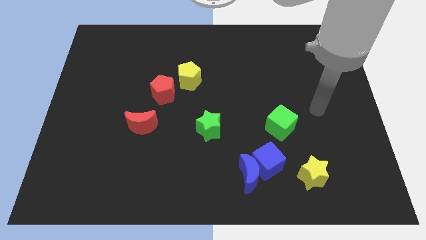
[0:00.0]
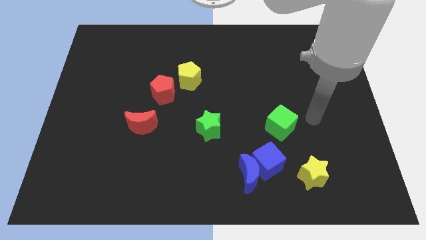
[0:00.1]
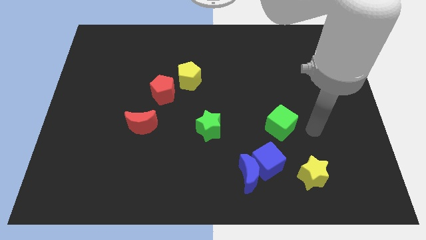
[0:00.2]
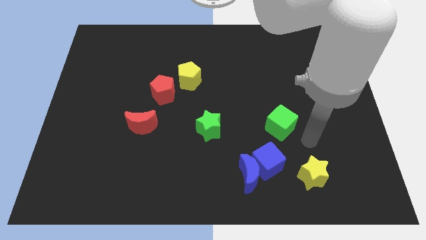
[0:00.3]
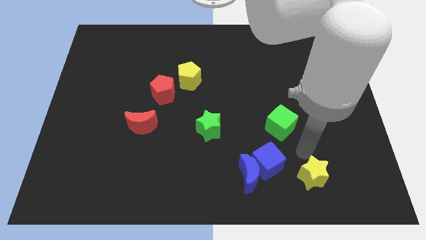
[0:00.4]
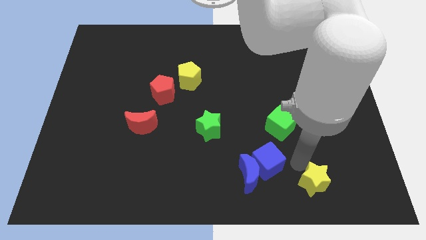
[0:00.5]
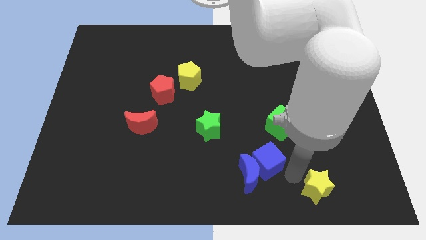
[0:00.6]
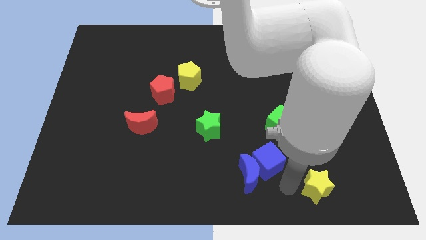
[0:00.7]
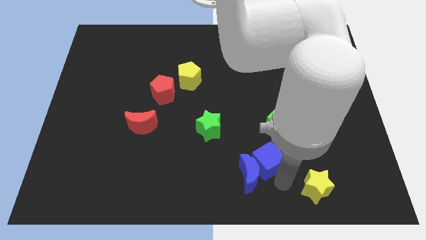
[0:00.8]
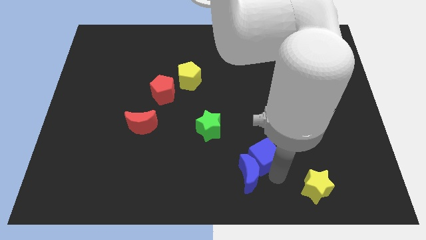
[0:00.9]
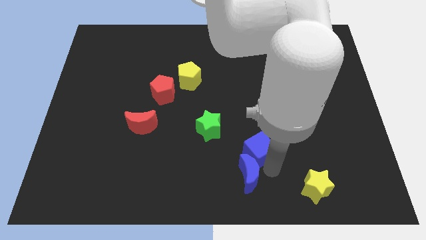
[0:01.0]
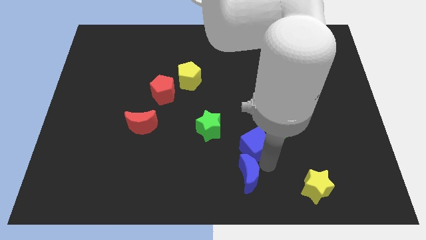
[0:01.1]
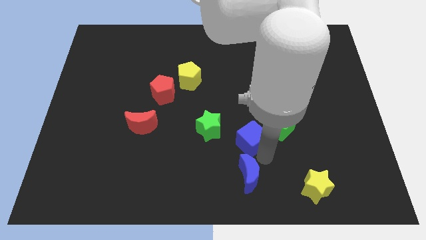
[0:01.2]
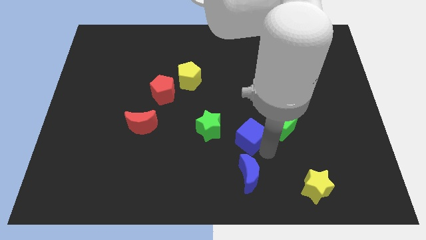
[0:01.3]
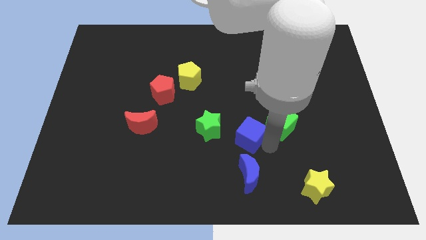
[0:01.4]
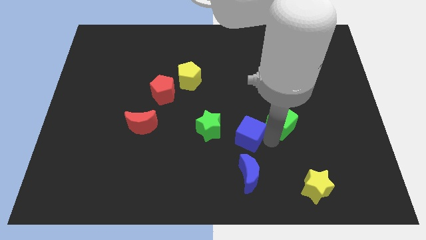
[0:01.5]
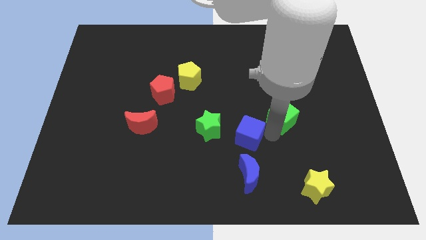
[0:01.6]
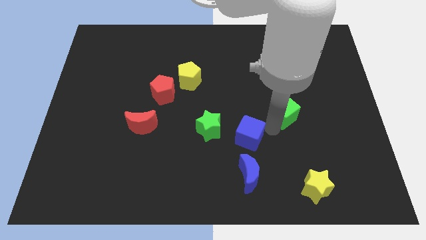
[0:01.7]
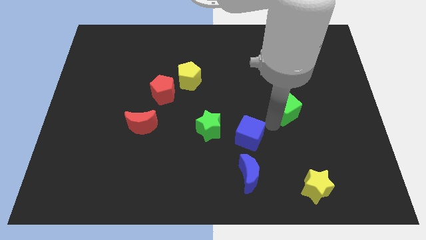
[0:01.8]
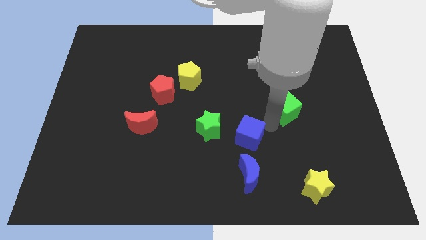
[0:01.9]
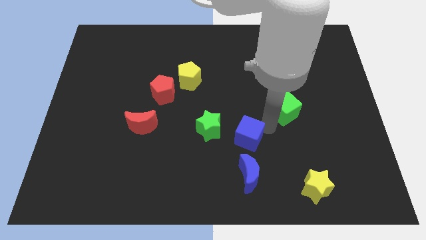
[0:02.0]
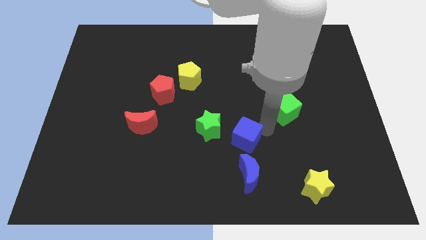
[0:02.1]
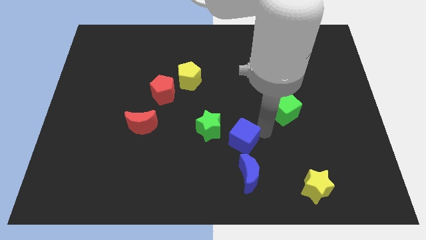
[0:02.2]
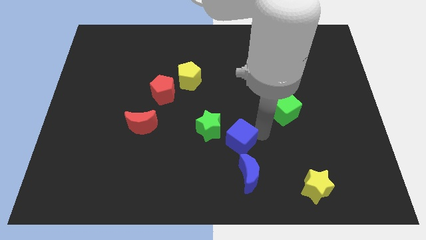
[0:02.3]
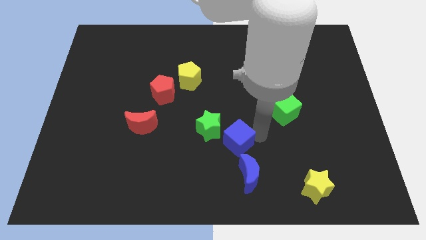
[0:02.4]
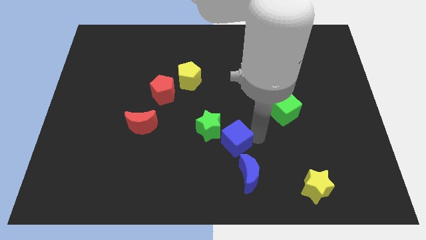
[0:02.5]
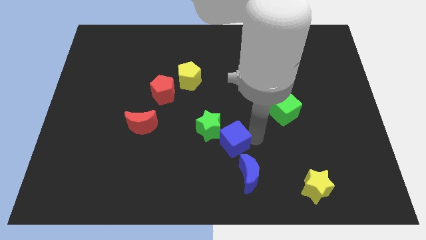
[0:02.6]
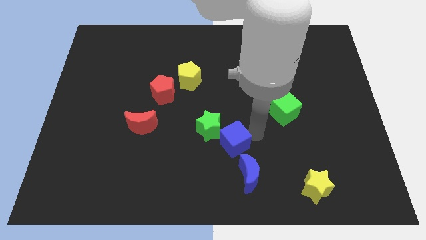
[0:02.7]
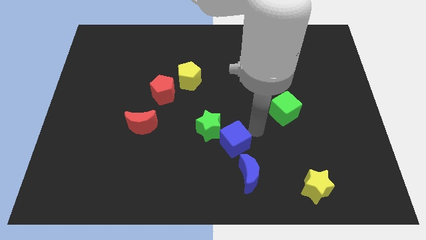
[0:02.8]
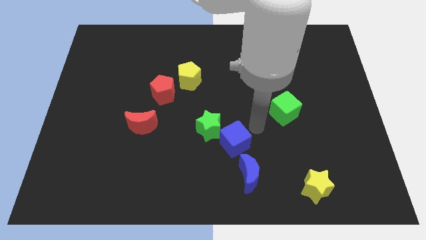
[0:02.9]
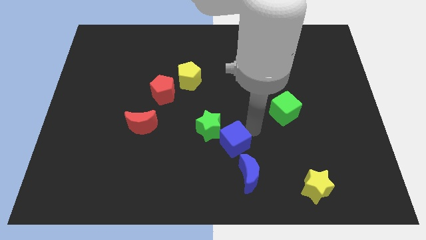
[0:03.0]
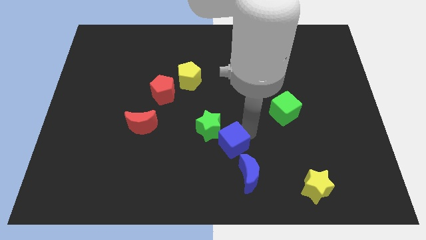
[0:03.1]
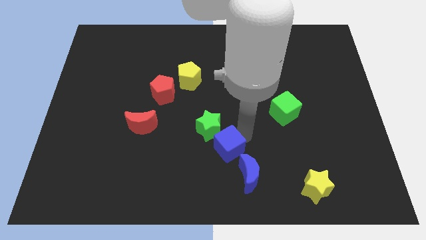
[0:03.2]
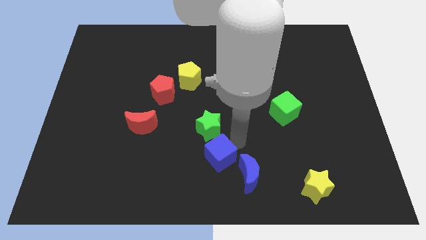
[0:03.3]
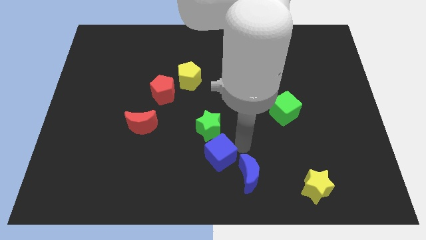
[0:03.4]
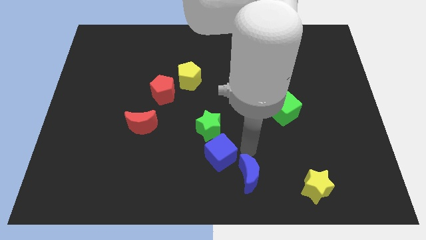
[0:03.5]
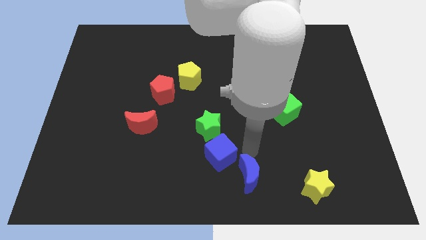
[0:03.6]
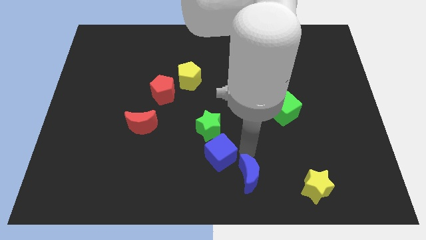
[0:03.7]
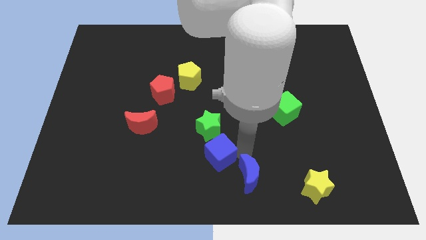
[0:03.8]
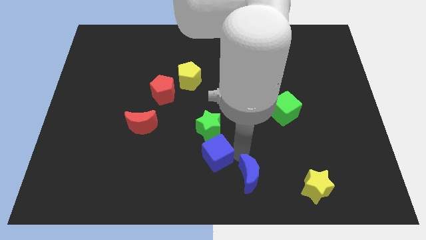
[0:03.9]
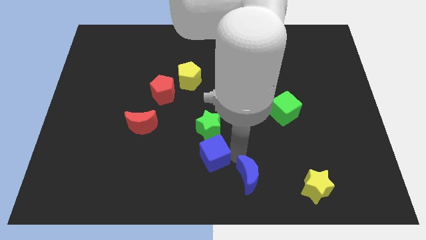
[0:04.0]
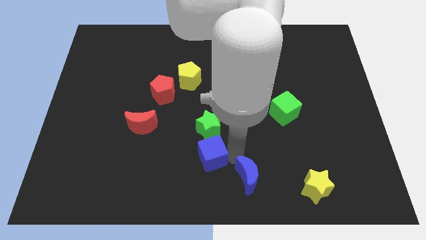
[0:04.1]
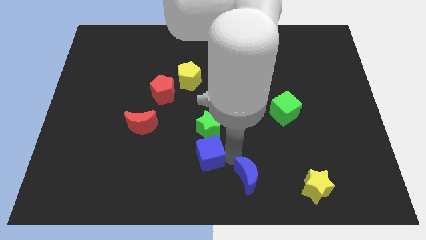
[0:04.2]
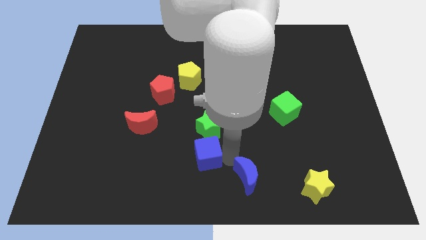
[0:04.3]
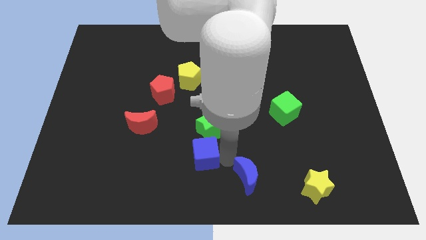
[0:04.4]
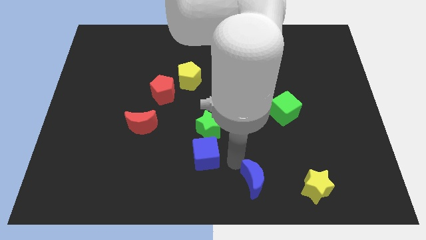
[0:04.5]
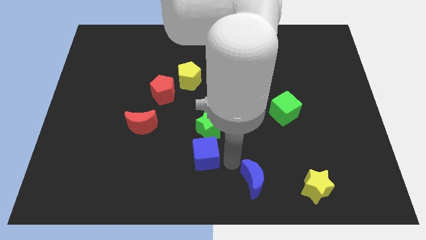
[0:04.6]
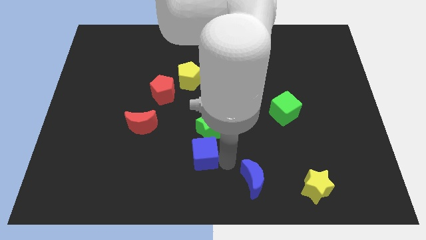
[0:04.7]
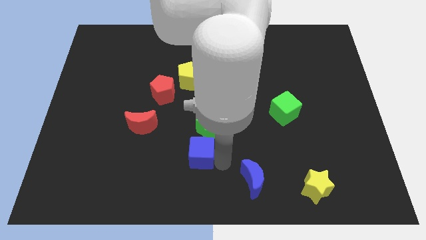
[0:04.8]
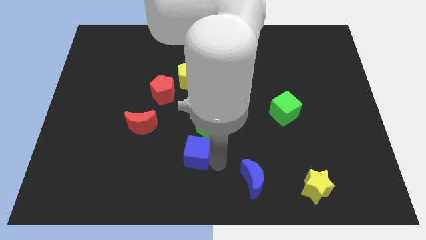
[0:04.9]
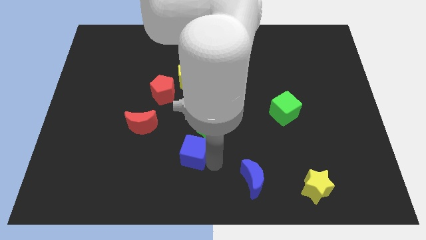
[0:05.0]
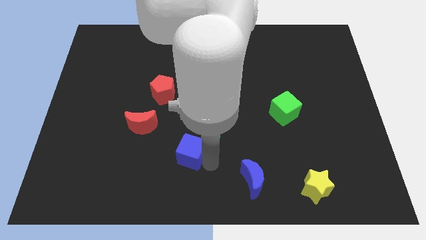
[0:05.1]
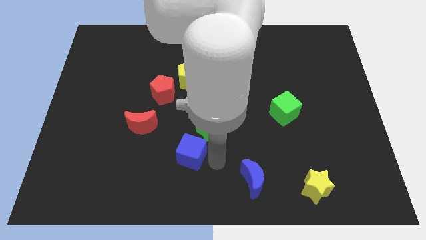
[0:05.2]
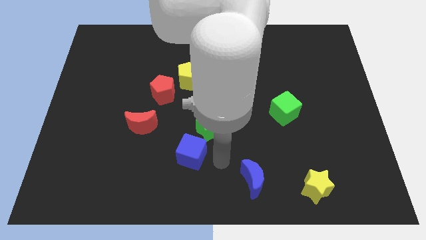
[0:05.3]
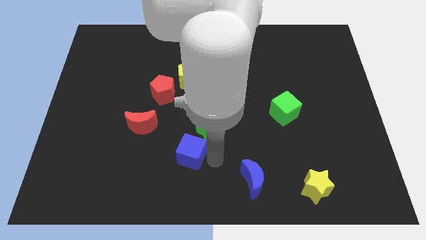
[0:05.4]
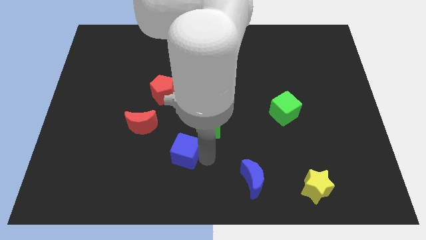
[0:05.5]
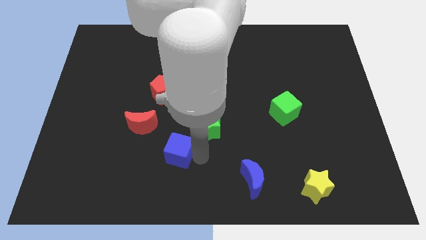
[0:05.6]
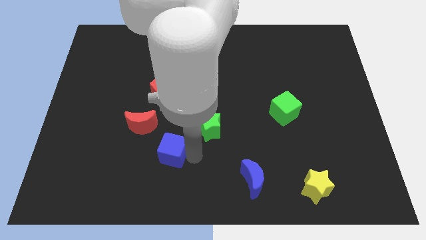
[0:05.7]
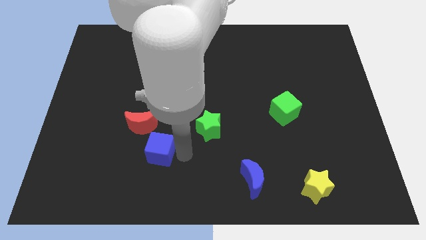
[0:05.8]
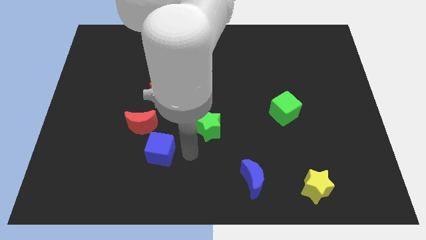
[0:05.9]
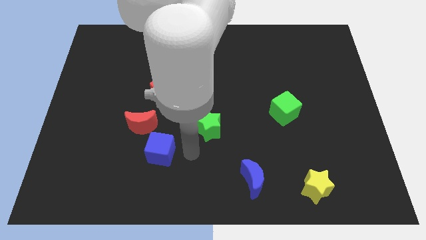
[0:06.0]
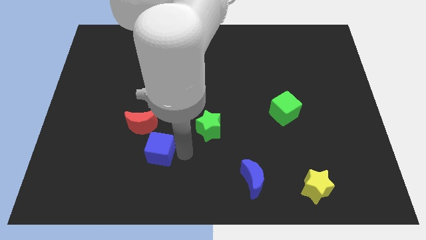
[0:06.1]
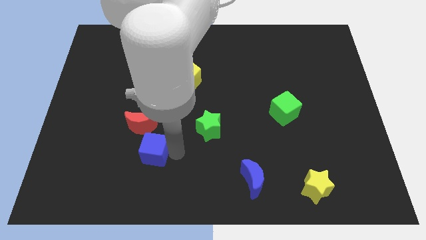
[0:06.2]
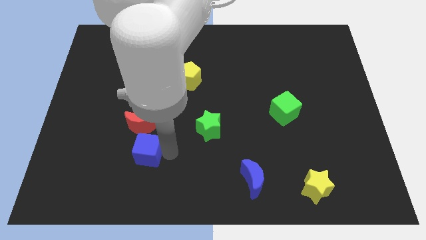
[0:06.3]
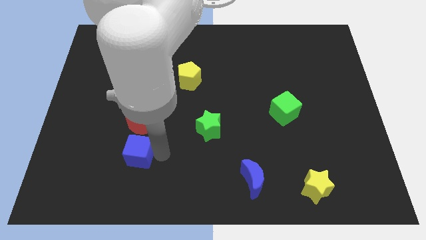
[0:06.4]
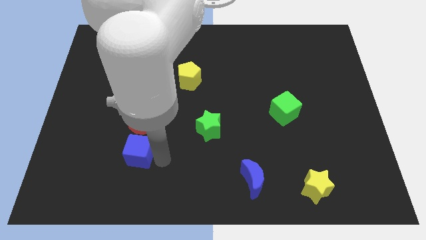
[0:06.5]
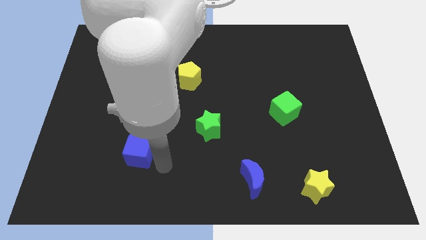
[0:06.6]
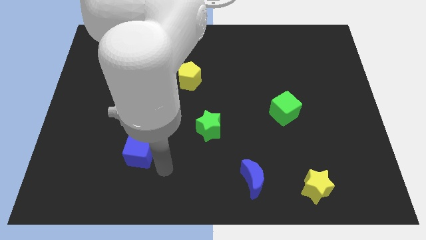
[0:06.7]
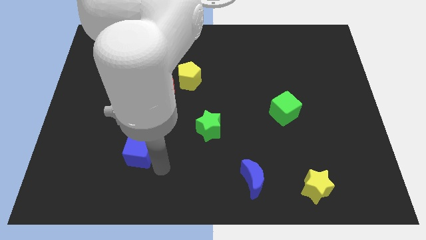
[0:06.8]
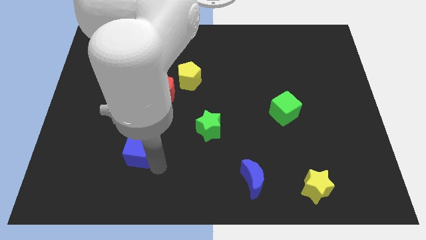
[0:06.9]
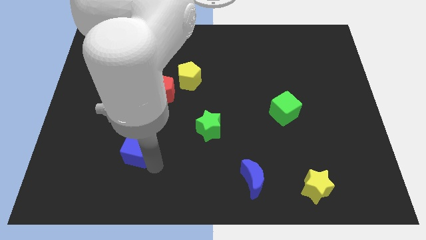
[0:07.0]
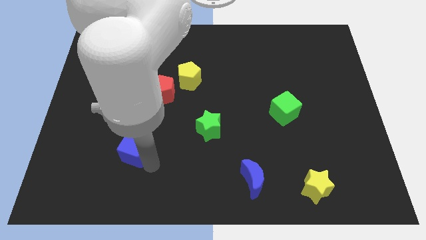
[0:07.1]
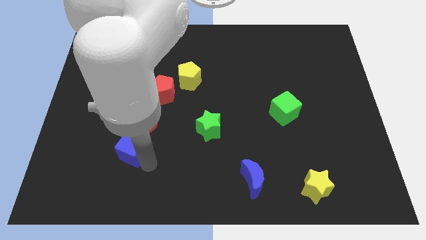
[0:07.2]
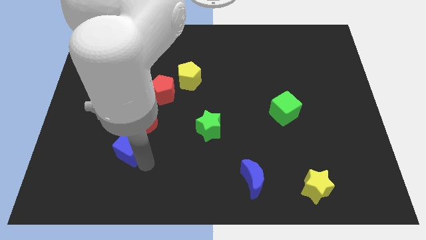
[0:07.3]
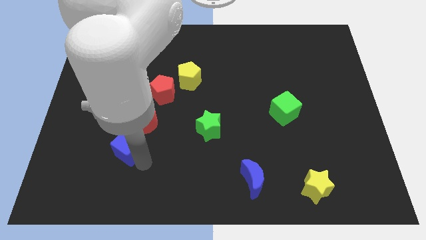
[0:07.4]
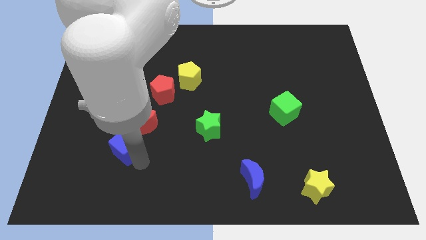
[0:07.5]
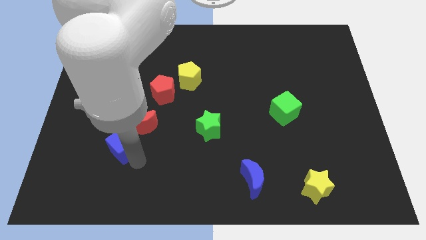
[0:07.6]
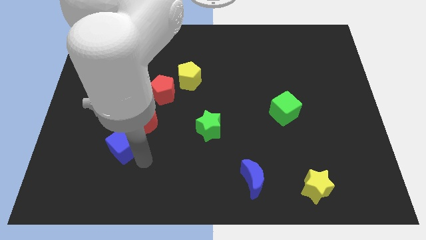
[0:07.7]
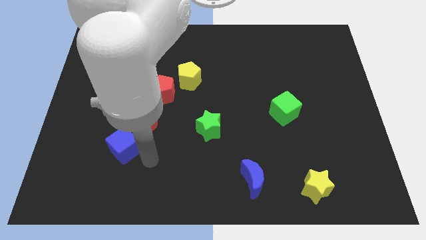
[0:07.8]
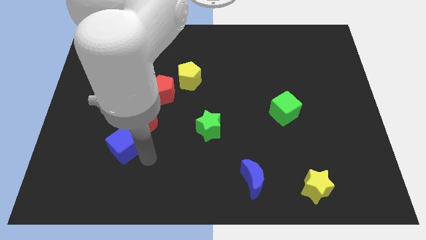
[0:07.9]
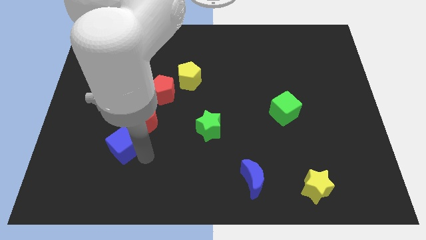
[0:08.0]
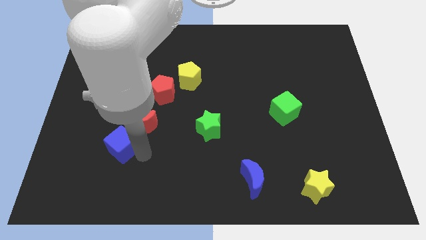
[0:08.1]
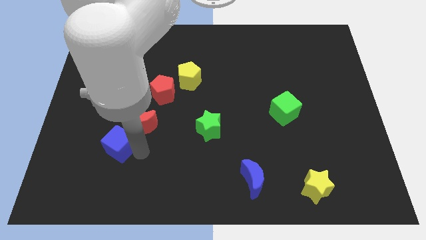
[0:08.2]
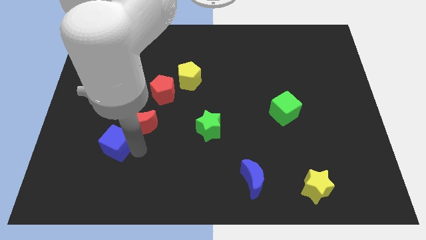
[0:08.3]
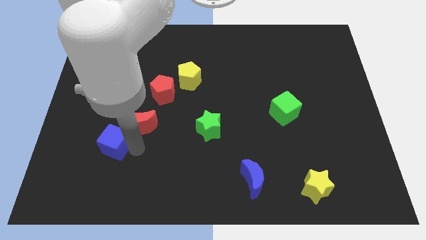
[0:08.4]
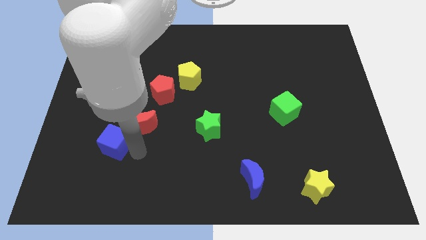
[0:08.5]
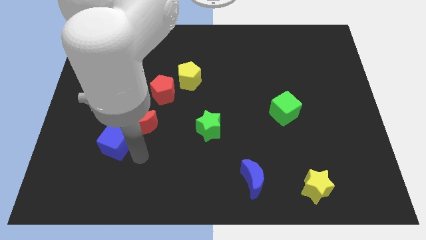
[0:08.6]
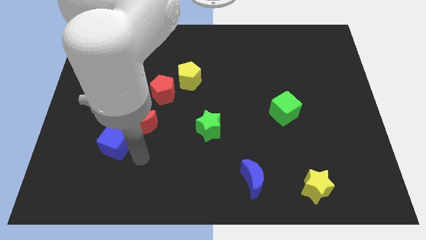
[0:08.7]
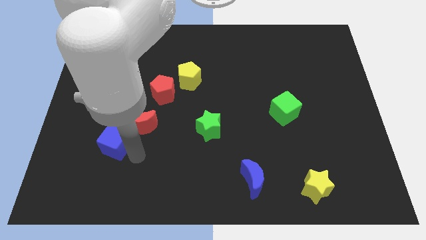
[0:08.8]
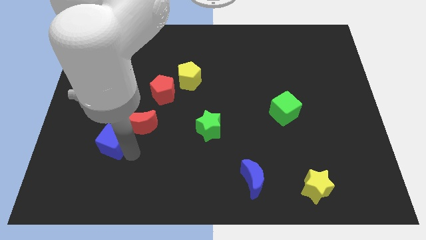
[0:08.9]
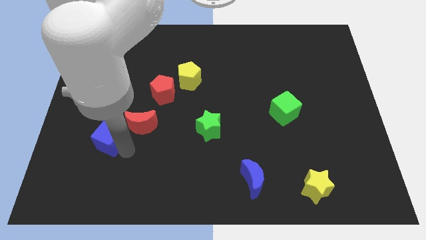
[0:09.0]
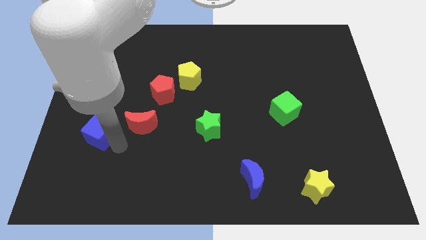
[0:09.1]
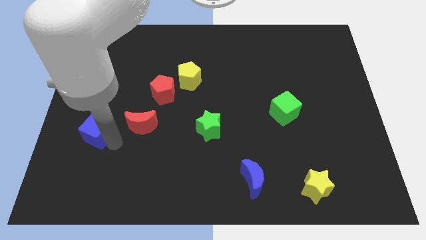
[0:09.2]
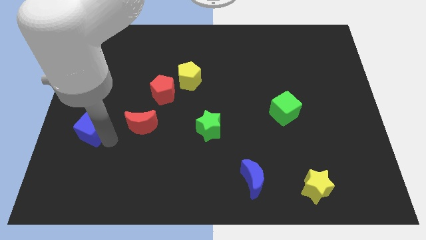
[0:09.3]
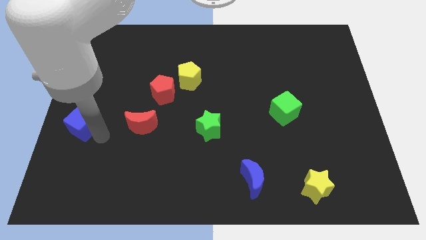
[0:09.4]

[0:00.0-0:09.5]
move the blue cube to the center left
